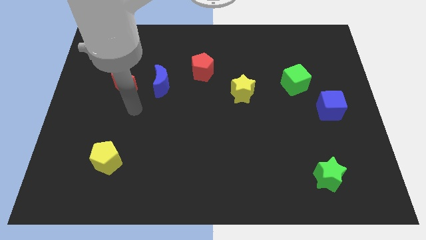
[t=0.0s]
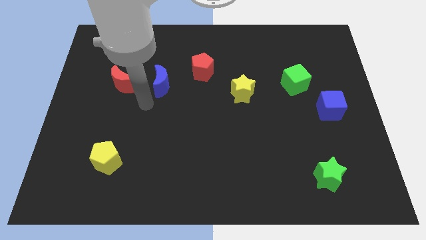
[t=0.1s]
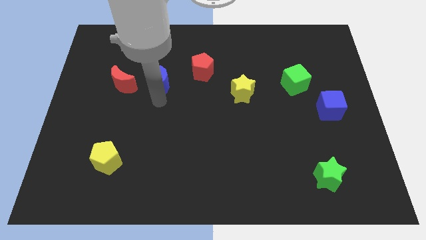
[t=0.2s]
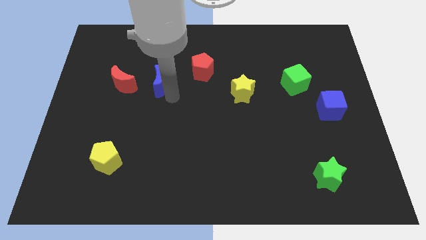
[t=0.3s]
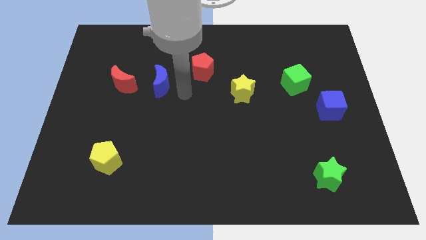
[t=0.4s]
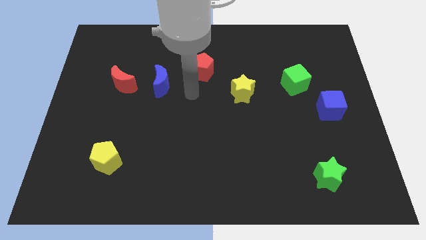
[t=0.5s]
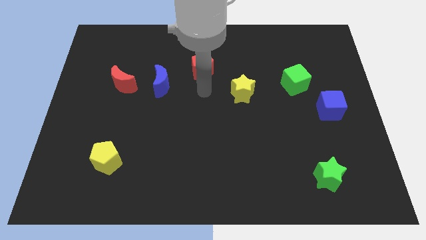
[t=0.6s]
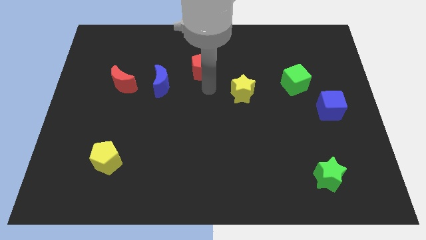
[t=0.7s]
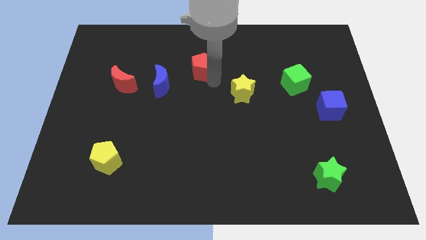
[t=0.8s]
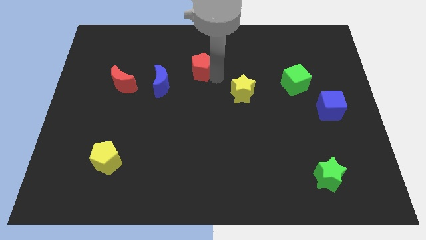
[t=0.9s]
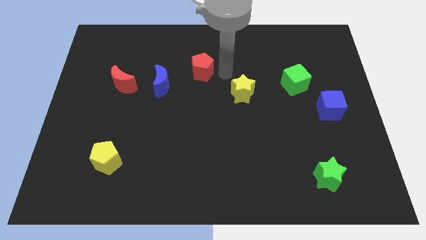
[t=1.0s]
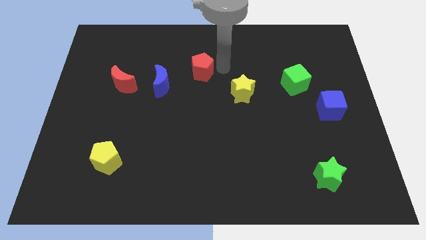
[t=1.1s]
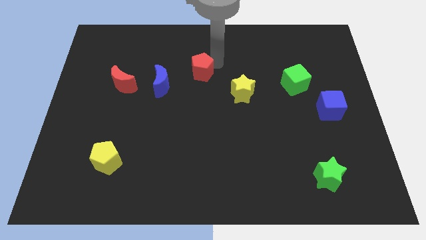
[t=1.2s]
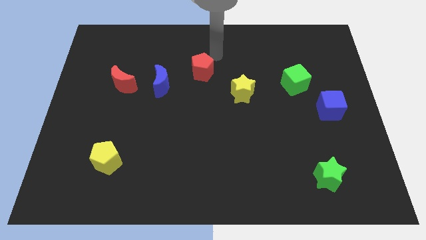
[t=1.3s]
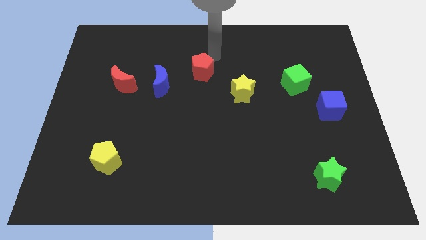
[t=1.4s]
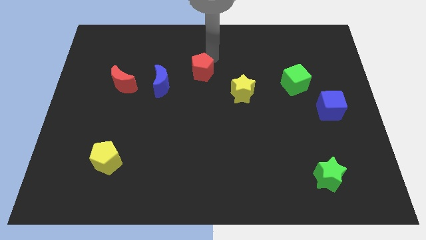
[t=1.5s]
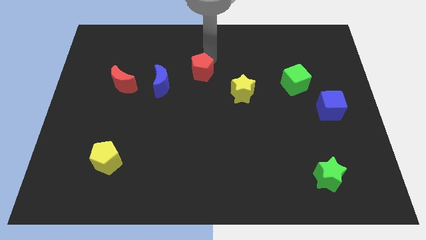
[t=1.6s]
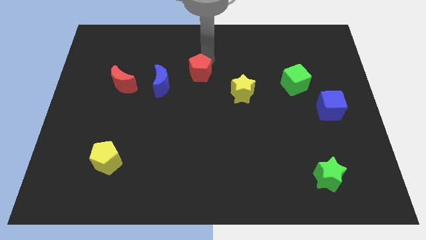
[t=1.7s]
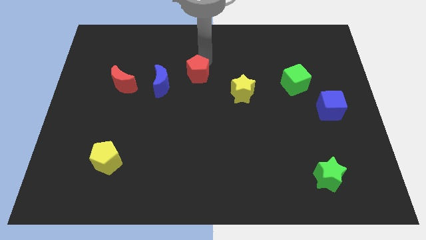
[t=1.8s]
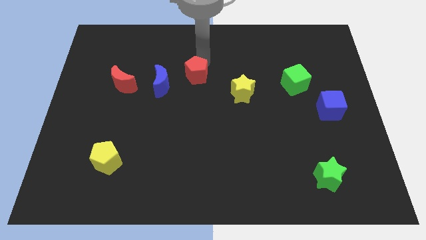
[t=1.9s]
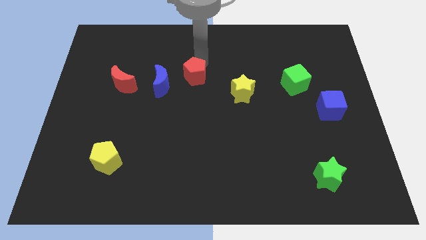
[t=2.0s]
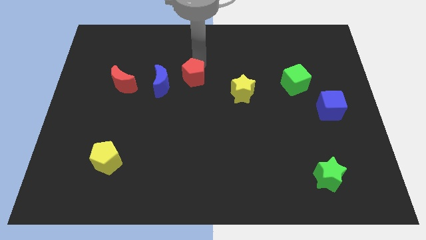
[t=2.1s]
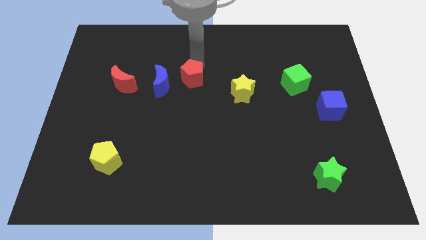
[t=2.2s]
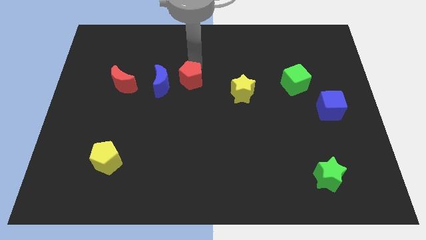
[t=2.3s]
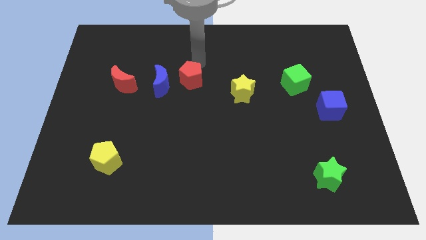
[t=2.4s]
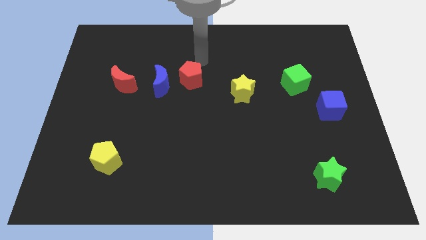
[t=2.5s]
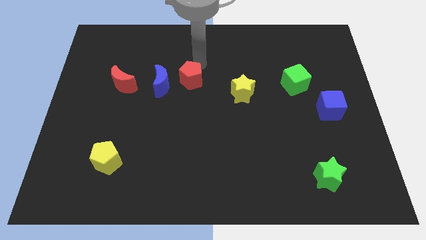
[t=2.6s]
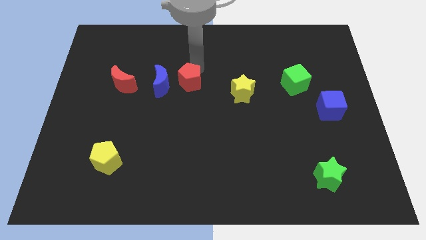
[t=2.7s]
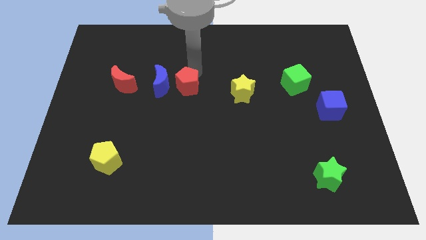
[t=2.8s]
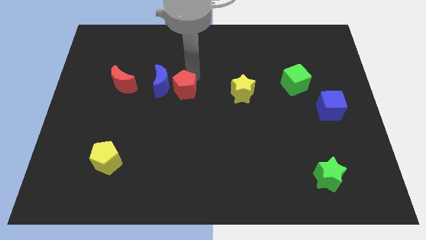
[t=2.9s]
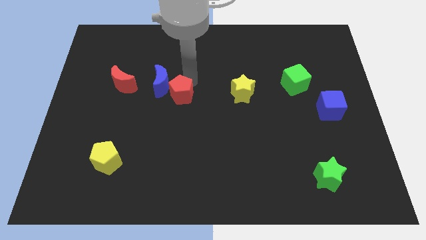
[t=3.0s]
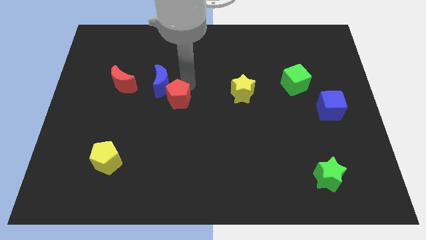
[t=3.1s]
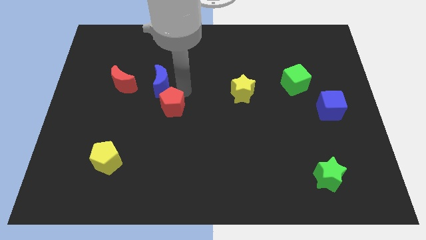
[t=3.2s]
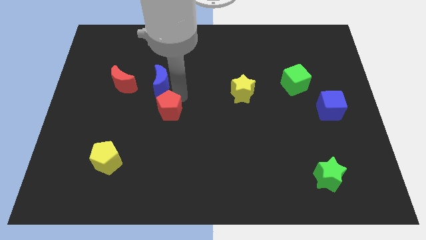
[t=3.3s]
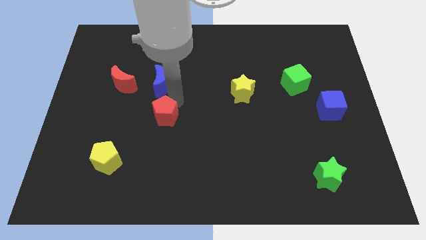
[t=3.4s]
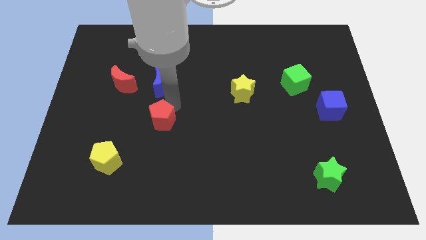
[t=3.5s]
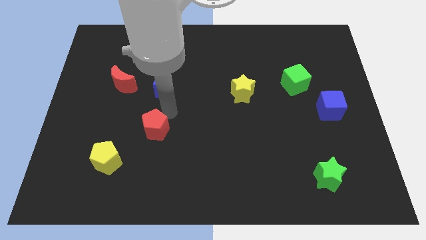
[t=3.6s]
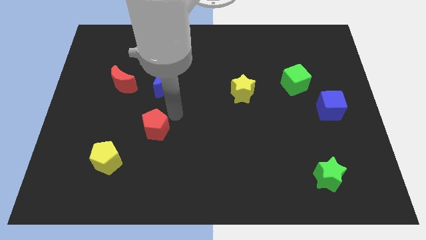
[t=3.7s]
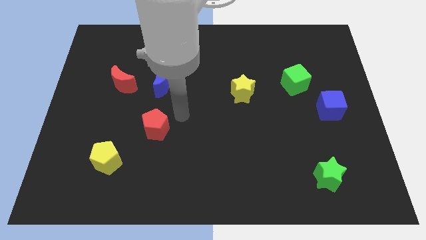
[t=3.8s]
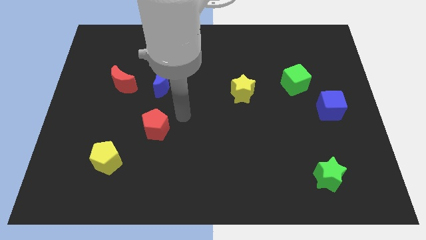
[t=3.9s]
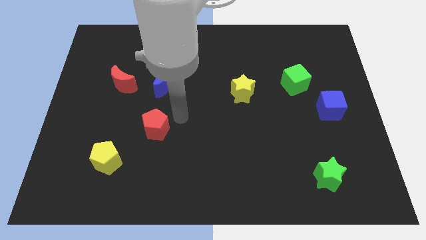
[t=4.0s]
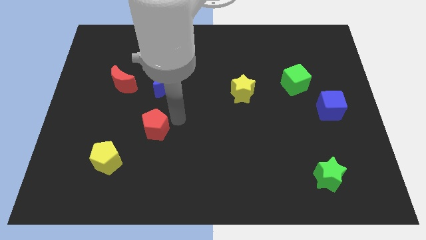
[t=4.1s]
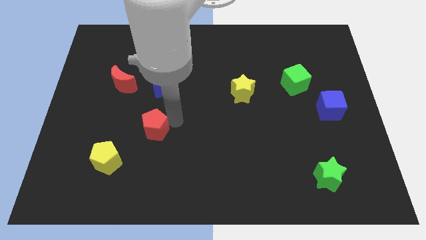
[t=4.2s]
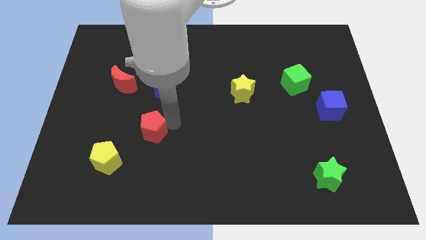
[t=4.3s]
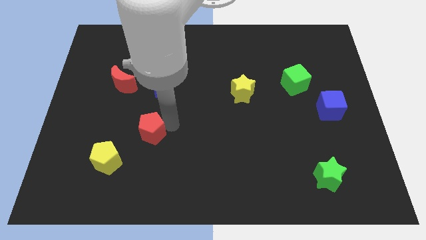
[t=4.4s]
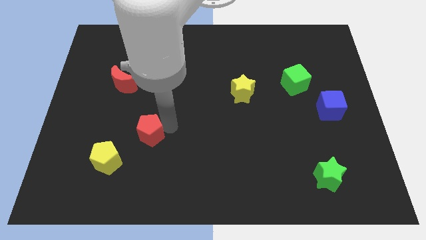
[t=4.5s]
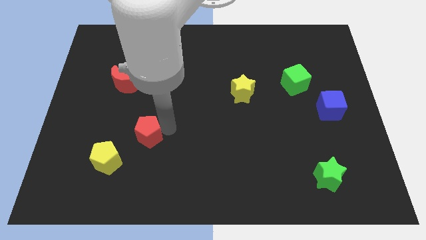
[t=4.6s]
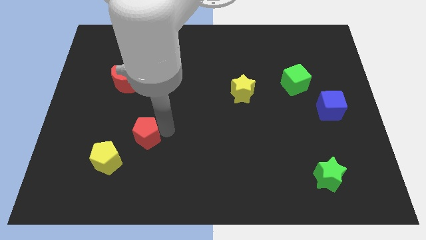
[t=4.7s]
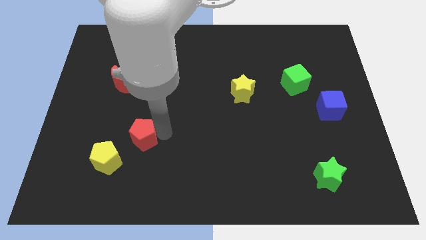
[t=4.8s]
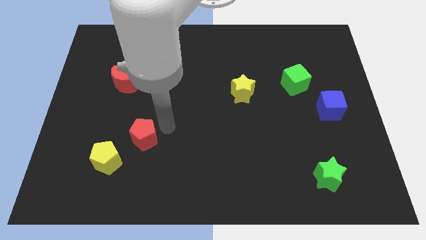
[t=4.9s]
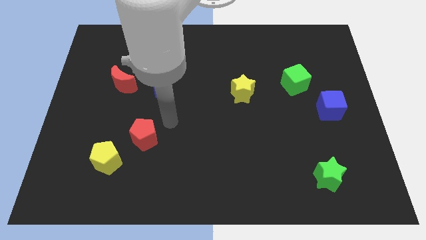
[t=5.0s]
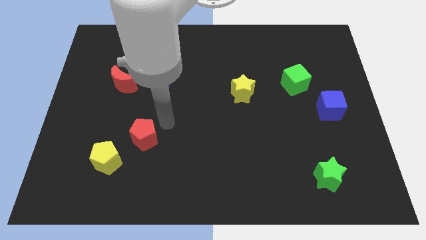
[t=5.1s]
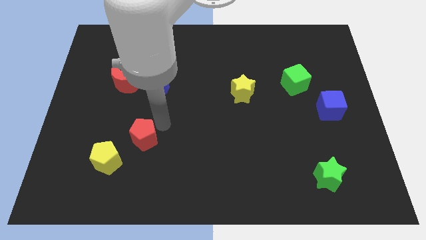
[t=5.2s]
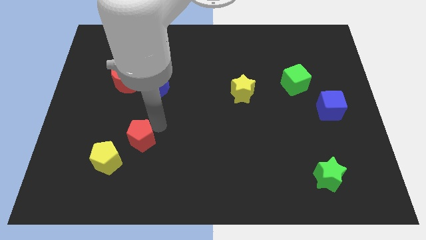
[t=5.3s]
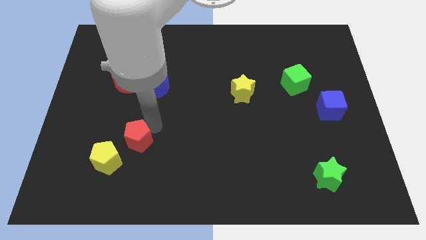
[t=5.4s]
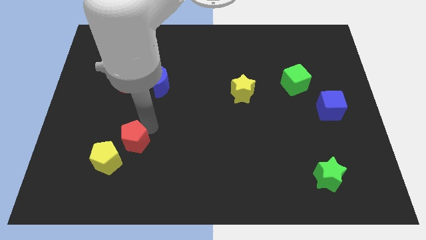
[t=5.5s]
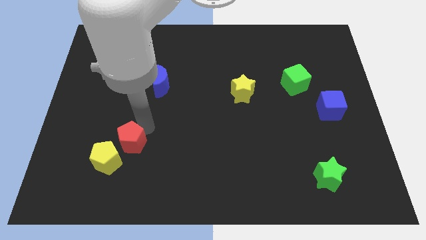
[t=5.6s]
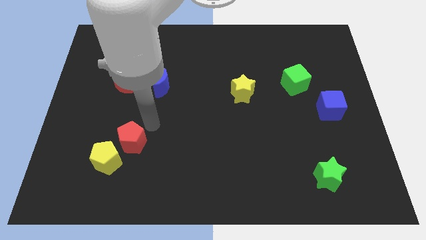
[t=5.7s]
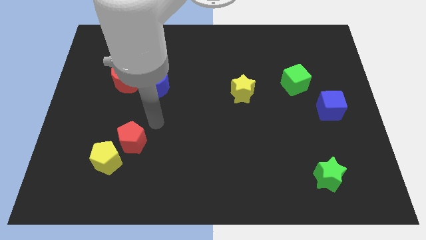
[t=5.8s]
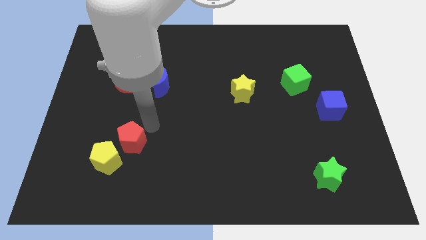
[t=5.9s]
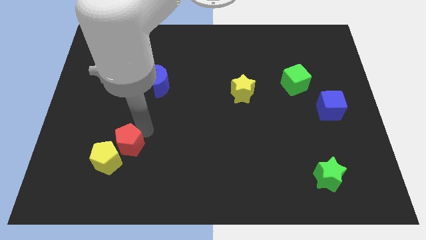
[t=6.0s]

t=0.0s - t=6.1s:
push the red pentagon next to the yellow pentagon

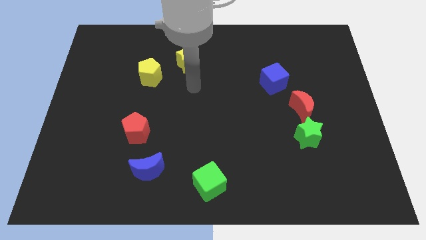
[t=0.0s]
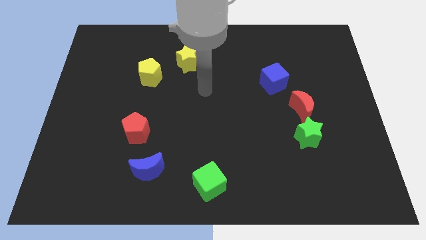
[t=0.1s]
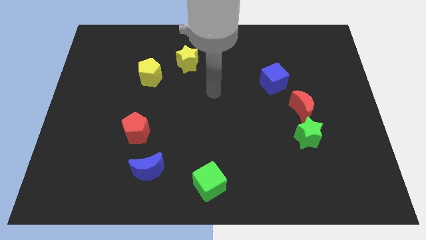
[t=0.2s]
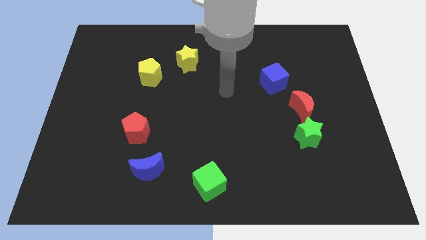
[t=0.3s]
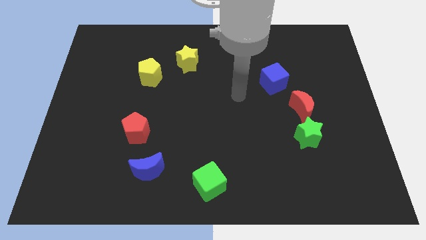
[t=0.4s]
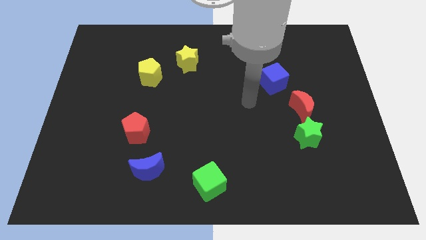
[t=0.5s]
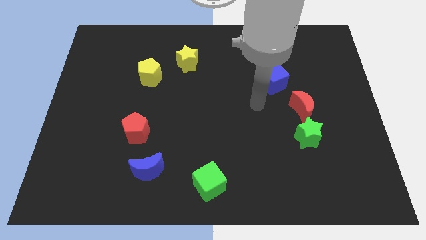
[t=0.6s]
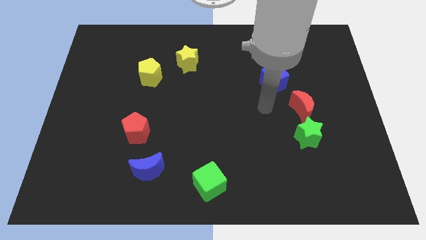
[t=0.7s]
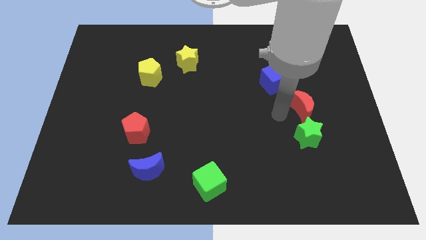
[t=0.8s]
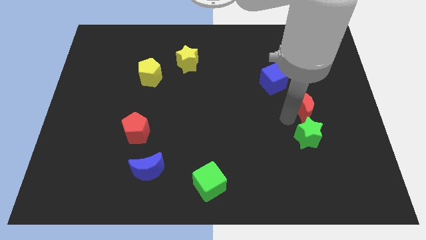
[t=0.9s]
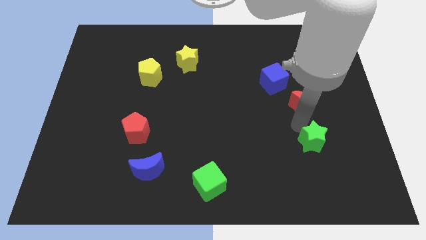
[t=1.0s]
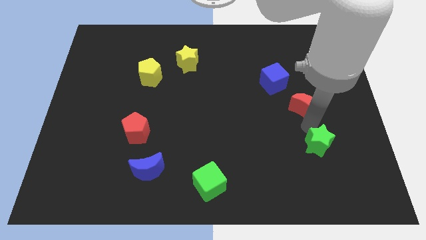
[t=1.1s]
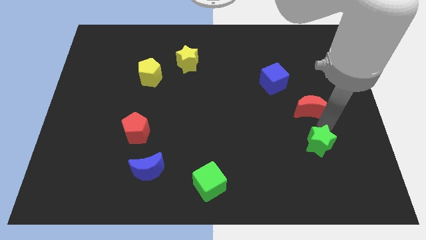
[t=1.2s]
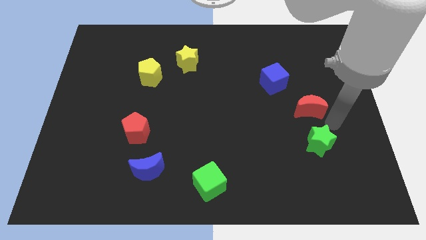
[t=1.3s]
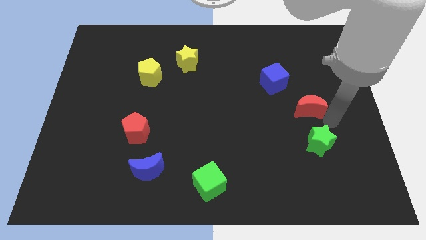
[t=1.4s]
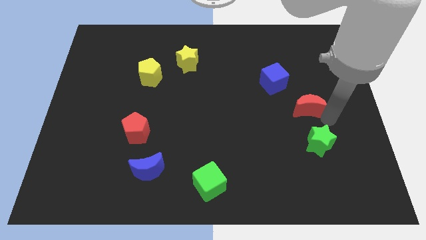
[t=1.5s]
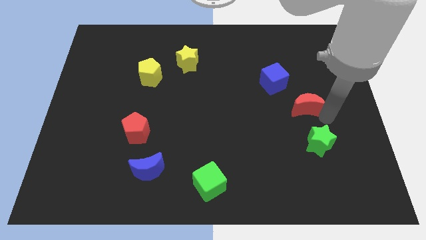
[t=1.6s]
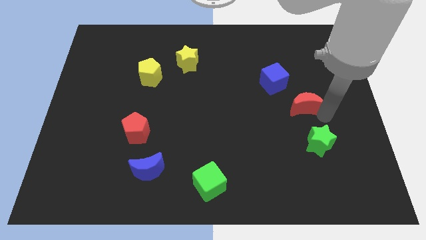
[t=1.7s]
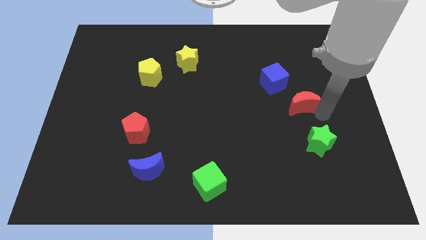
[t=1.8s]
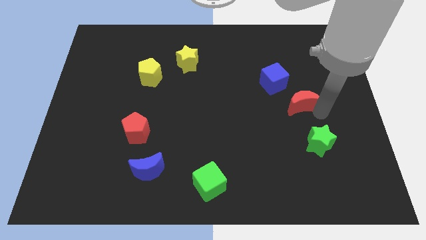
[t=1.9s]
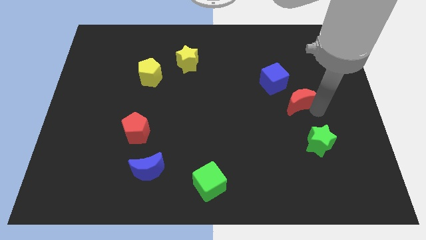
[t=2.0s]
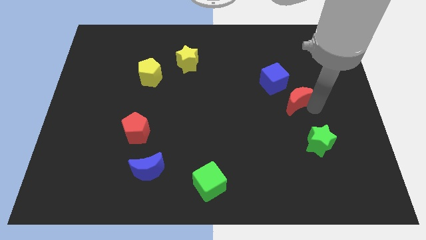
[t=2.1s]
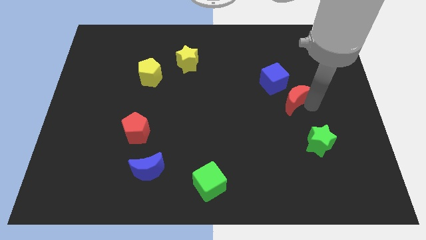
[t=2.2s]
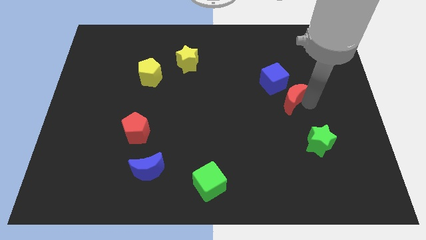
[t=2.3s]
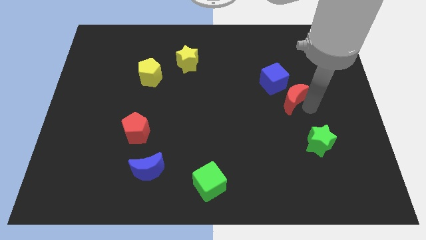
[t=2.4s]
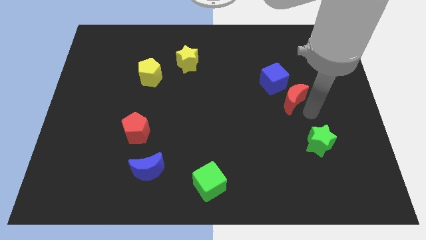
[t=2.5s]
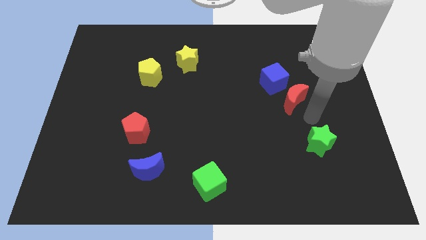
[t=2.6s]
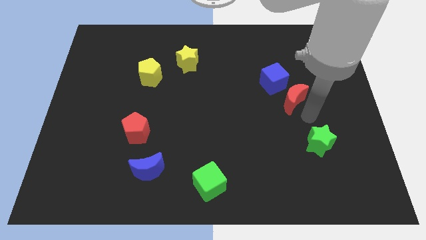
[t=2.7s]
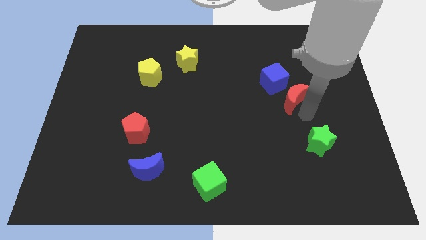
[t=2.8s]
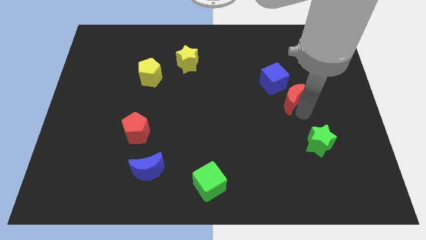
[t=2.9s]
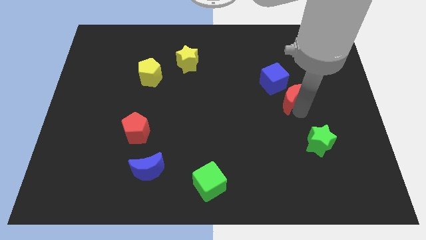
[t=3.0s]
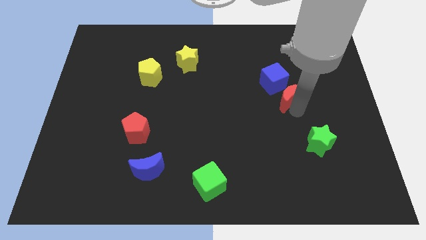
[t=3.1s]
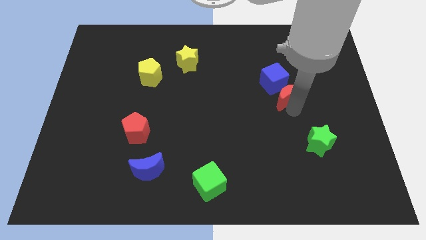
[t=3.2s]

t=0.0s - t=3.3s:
move the red moon to the blue cube
